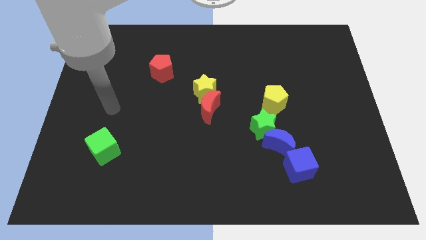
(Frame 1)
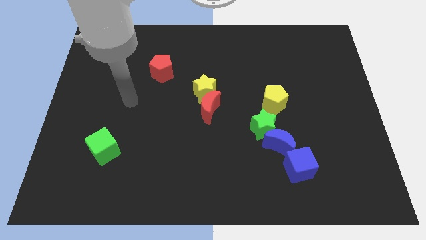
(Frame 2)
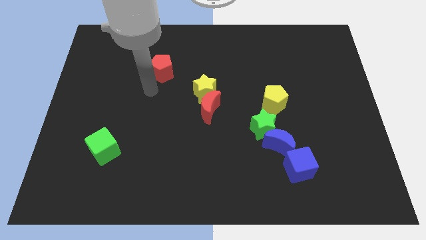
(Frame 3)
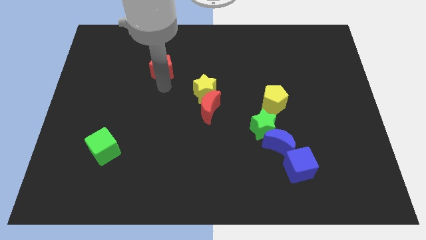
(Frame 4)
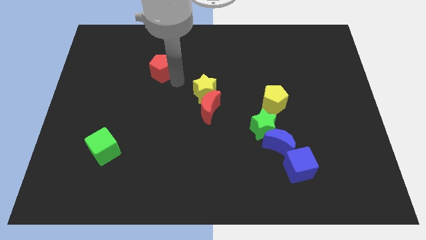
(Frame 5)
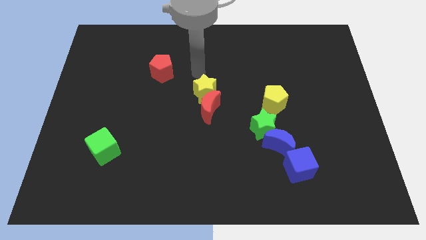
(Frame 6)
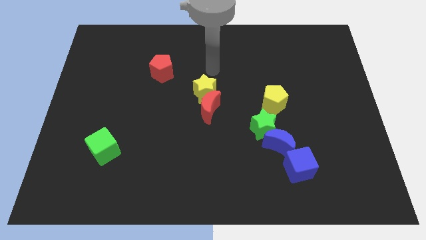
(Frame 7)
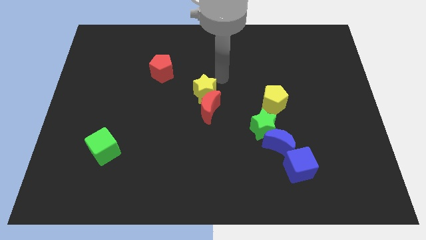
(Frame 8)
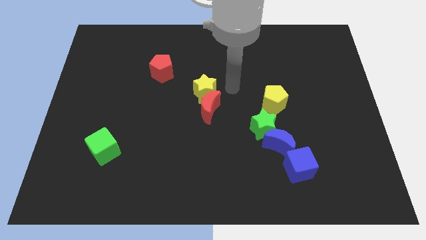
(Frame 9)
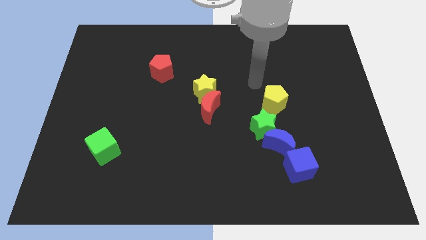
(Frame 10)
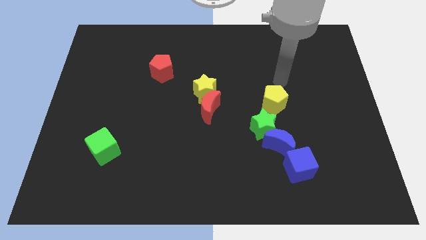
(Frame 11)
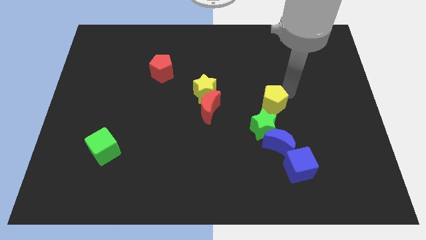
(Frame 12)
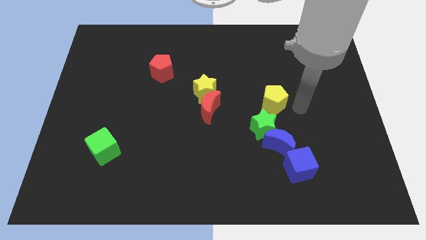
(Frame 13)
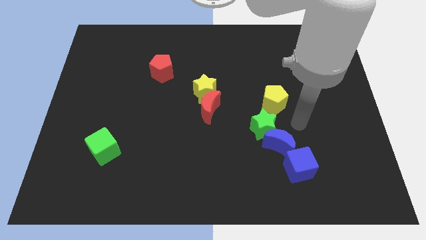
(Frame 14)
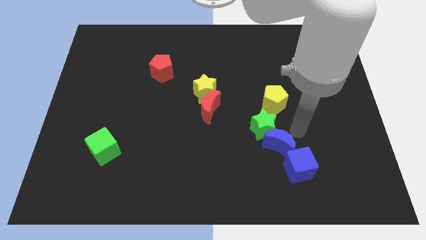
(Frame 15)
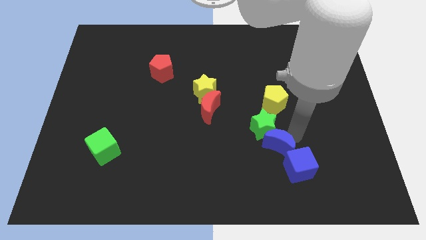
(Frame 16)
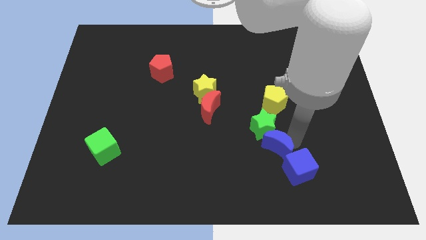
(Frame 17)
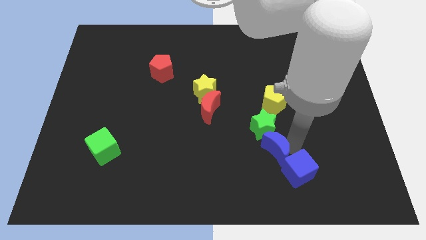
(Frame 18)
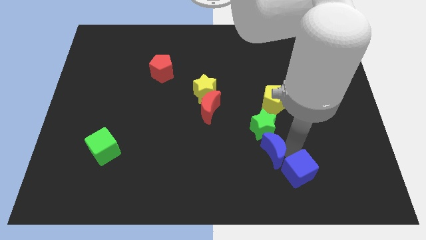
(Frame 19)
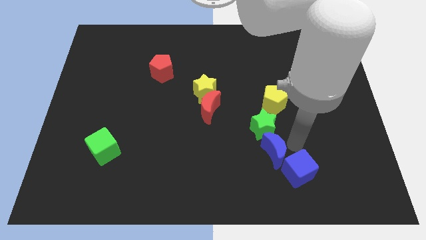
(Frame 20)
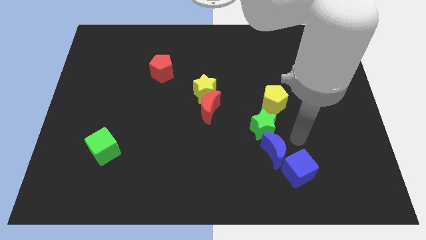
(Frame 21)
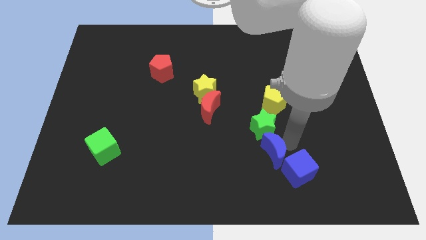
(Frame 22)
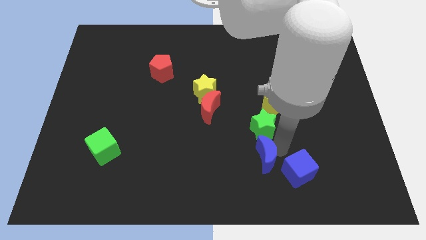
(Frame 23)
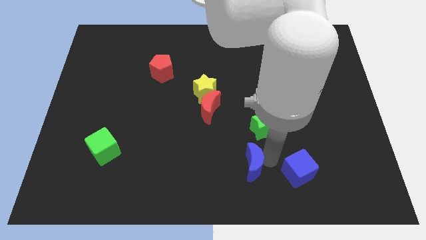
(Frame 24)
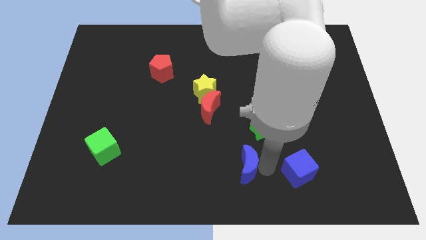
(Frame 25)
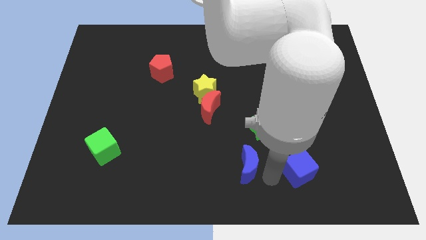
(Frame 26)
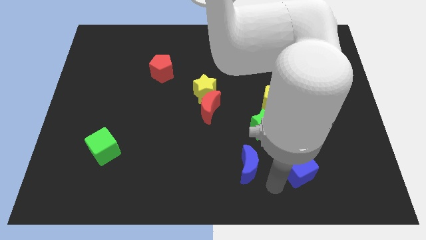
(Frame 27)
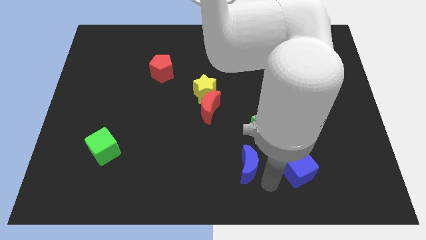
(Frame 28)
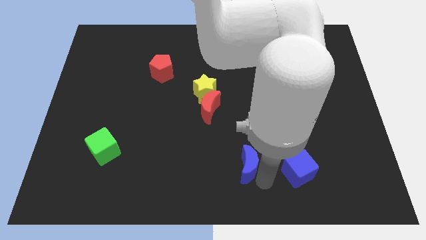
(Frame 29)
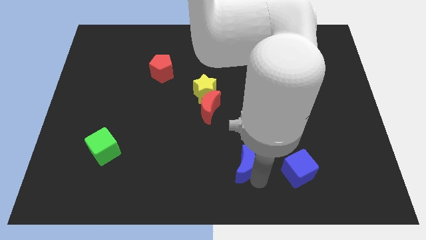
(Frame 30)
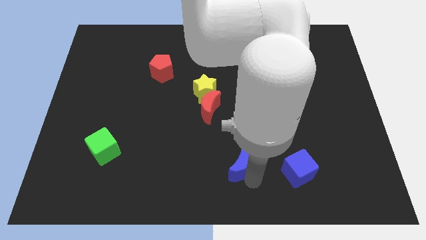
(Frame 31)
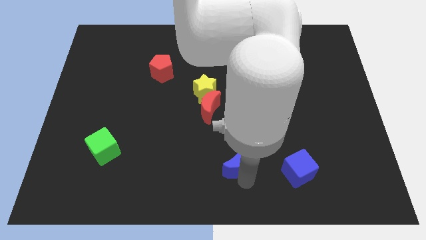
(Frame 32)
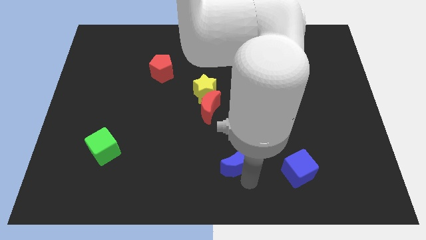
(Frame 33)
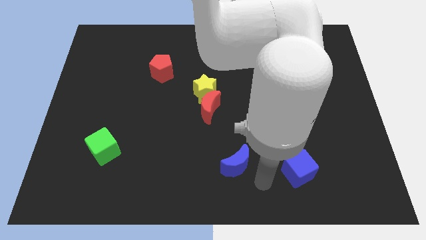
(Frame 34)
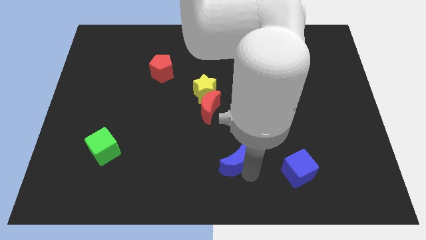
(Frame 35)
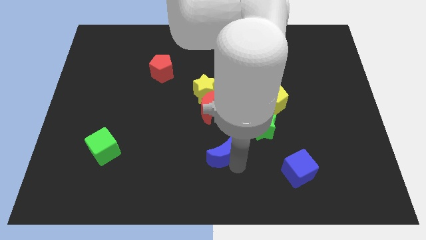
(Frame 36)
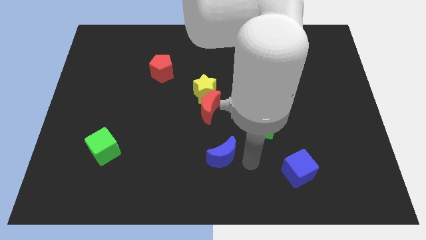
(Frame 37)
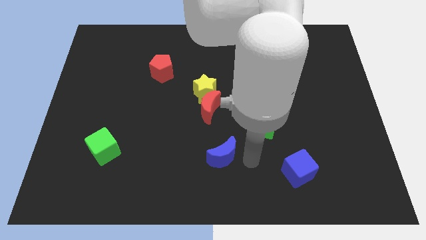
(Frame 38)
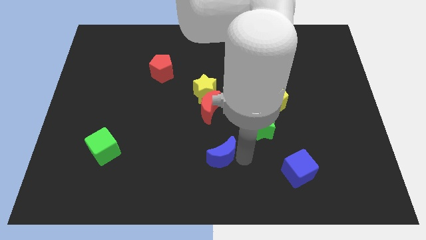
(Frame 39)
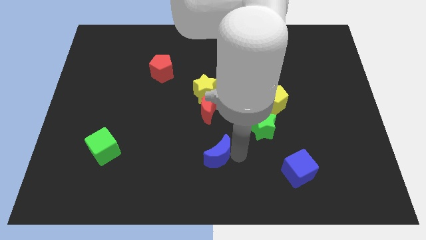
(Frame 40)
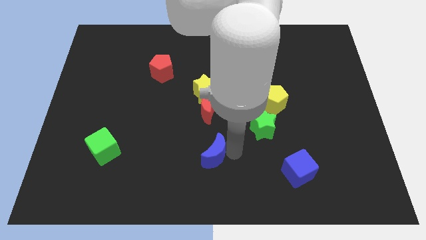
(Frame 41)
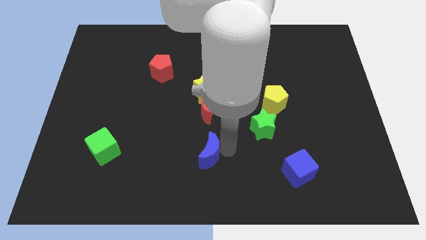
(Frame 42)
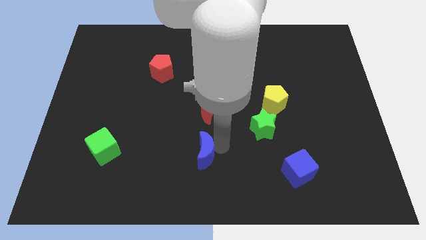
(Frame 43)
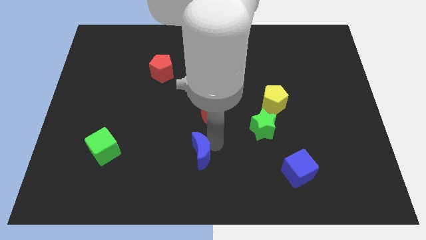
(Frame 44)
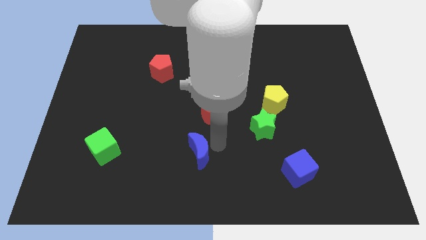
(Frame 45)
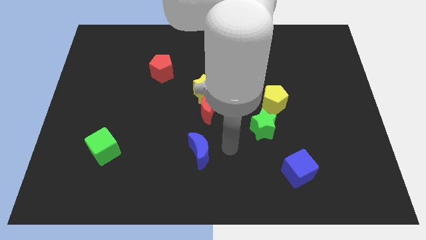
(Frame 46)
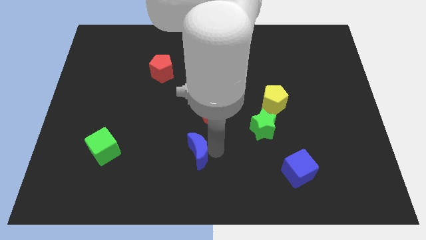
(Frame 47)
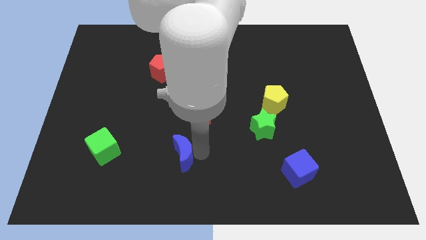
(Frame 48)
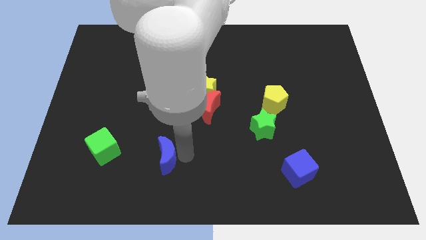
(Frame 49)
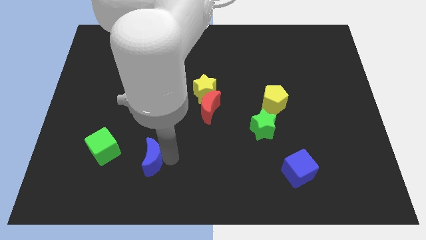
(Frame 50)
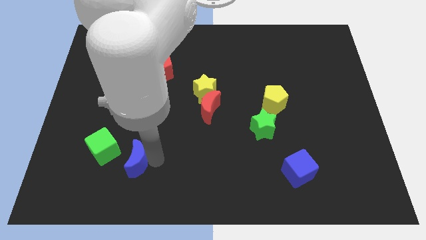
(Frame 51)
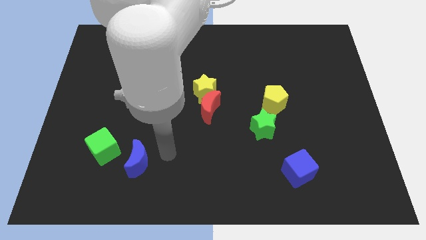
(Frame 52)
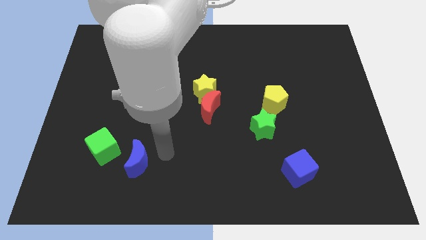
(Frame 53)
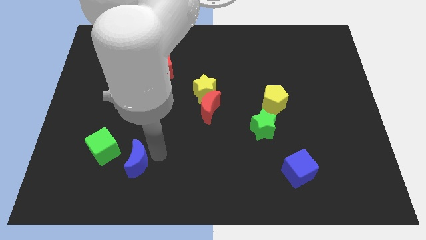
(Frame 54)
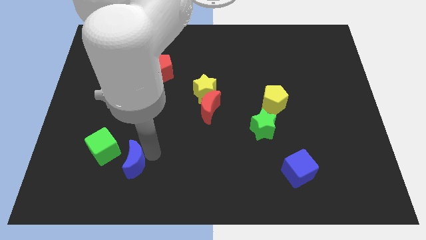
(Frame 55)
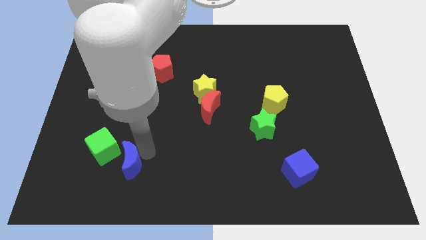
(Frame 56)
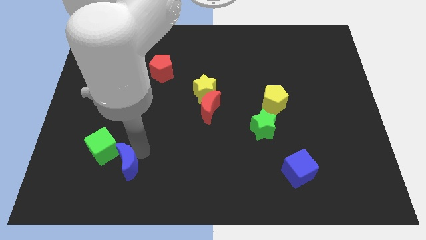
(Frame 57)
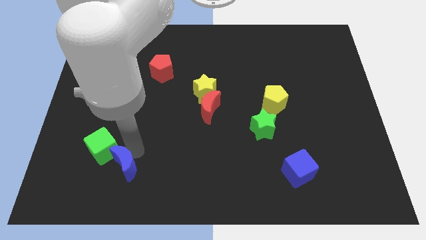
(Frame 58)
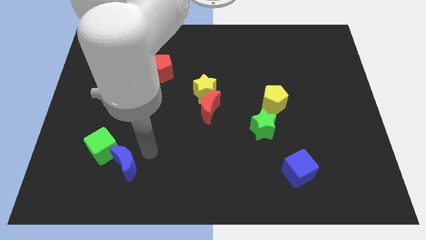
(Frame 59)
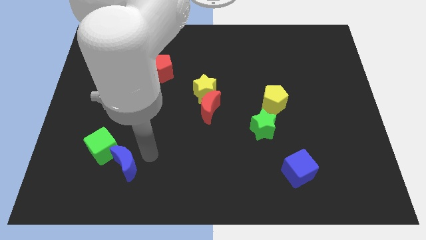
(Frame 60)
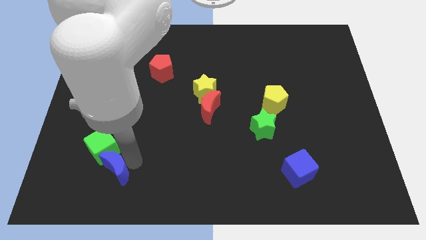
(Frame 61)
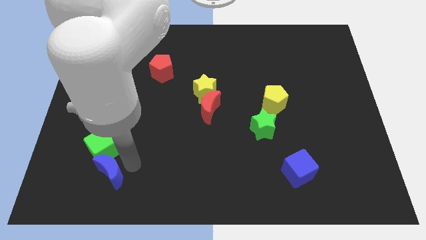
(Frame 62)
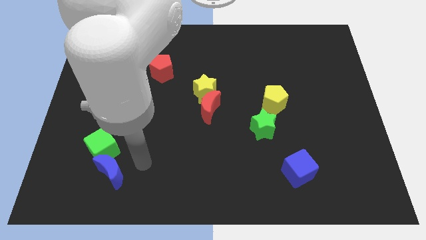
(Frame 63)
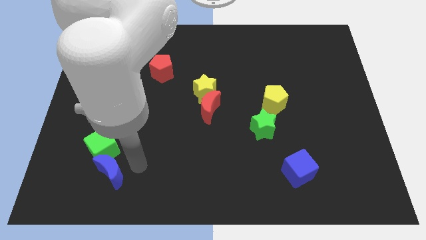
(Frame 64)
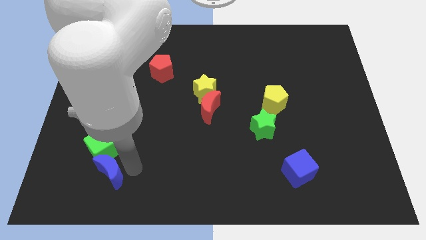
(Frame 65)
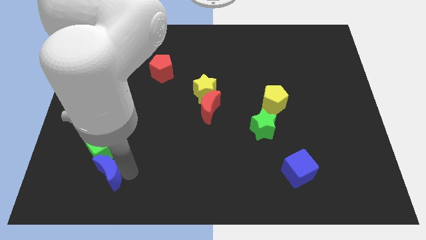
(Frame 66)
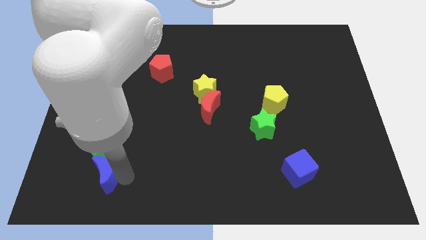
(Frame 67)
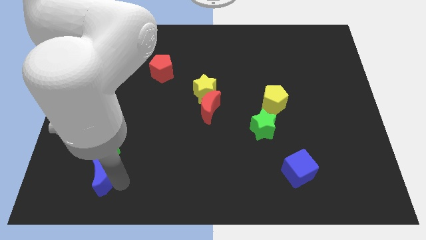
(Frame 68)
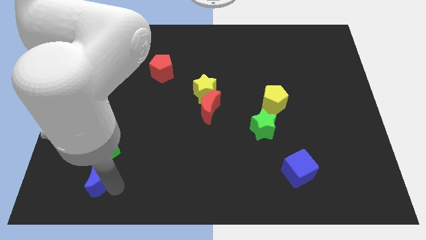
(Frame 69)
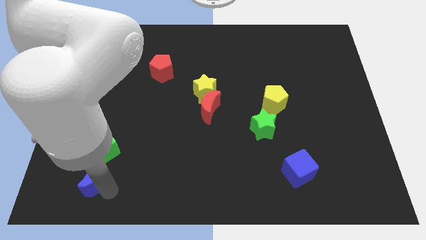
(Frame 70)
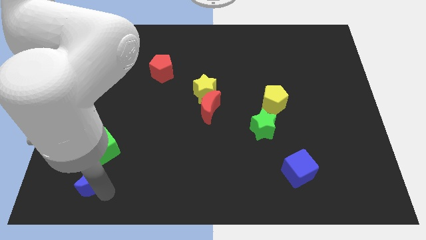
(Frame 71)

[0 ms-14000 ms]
slide the blue moon to the bottom left of the green cube

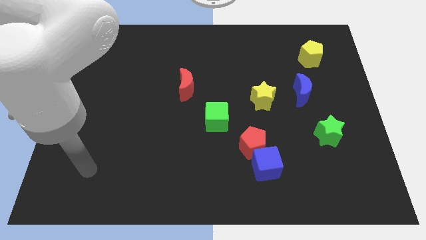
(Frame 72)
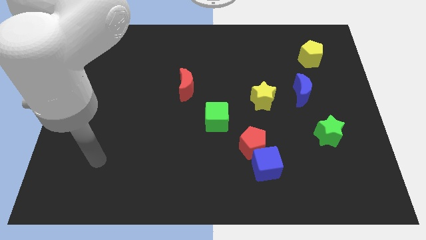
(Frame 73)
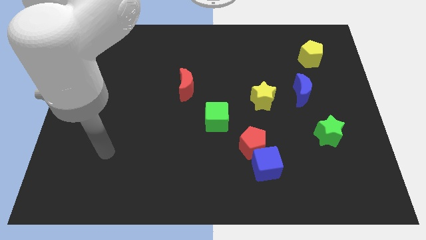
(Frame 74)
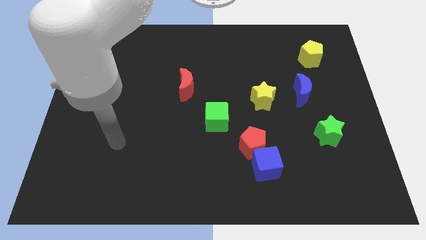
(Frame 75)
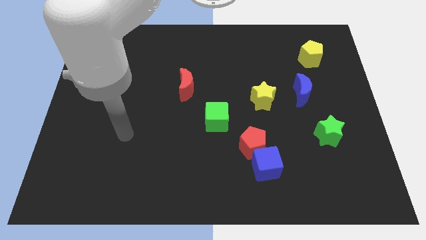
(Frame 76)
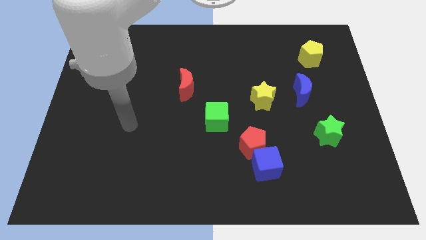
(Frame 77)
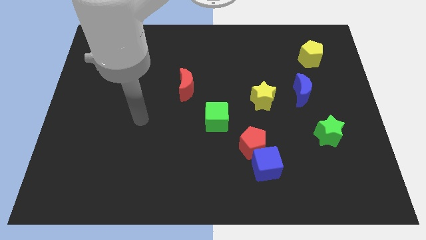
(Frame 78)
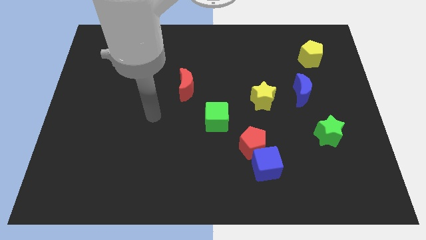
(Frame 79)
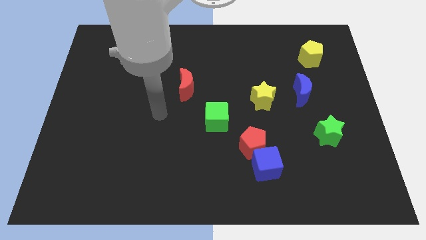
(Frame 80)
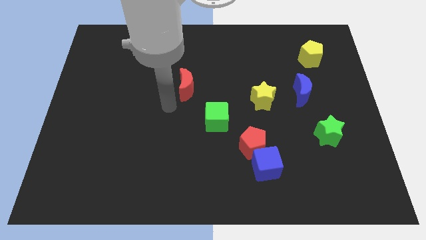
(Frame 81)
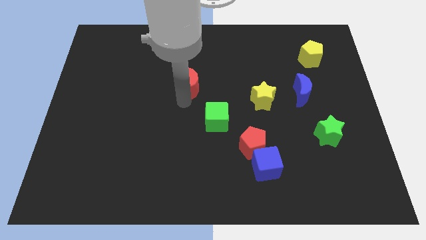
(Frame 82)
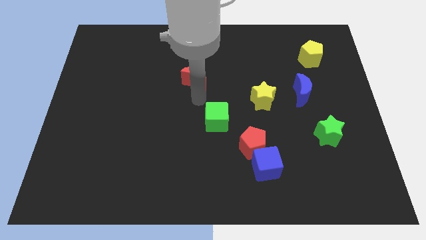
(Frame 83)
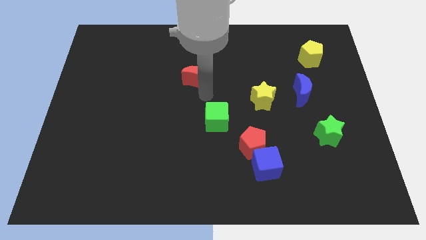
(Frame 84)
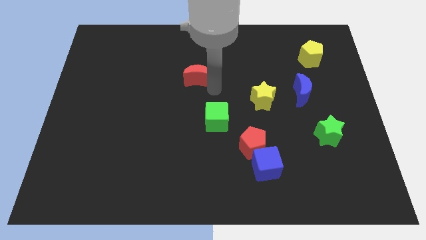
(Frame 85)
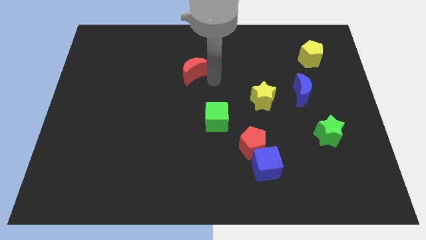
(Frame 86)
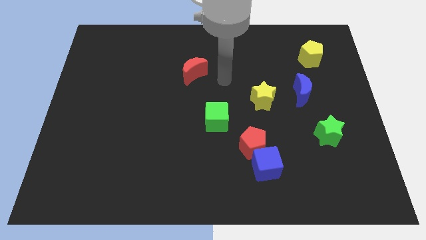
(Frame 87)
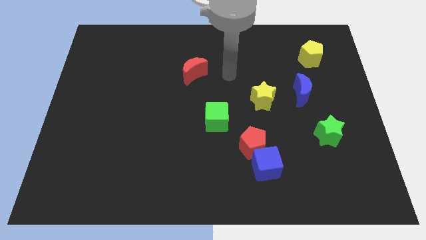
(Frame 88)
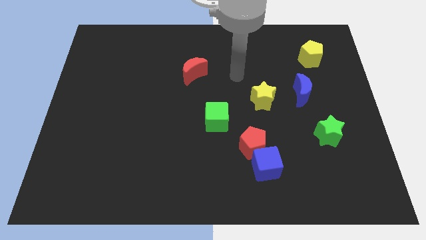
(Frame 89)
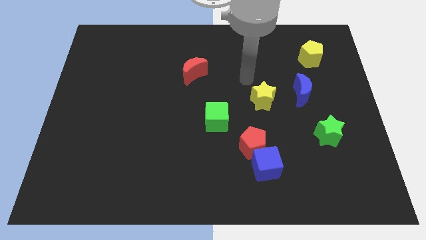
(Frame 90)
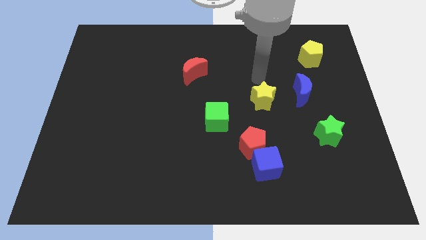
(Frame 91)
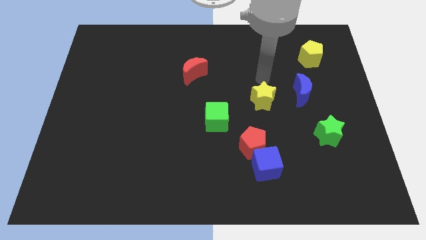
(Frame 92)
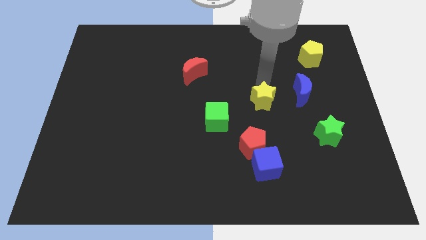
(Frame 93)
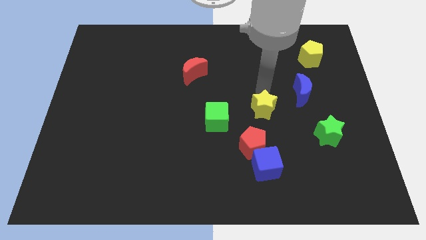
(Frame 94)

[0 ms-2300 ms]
move the yellow star to the top of the blue cube
